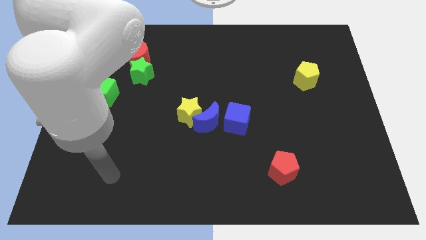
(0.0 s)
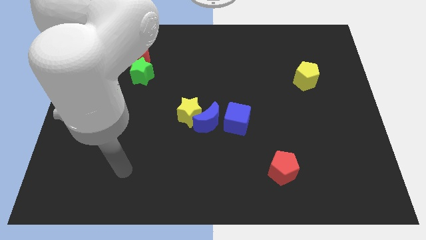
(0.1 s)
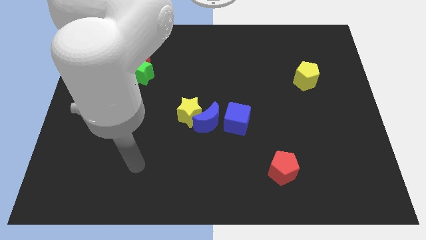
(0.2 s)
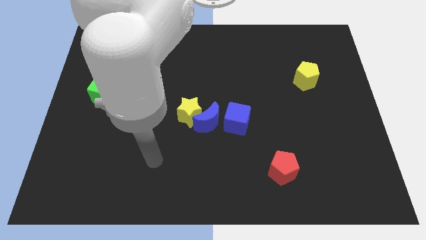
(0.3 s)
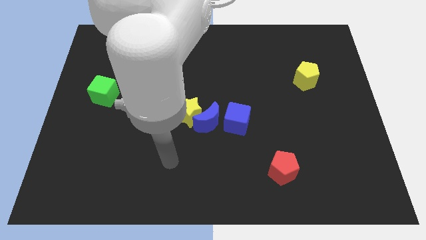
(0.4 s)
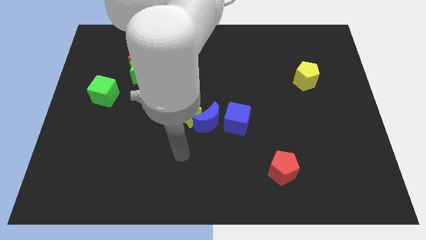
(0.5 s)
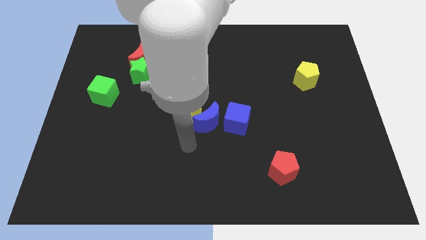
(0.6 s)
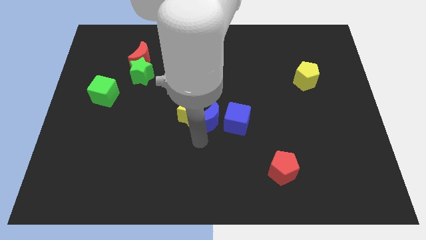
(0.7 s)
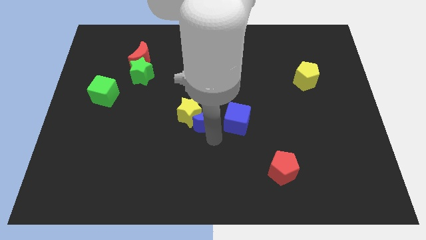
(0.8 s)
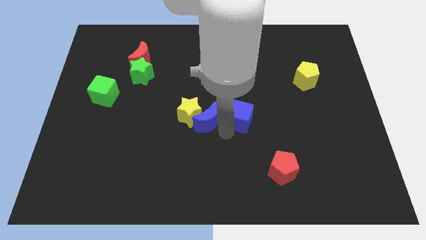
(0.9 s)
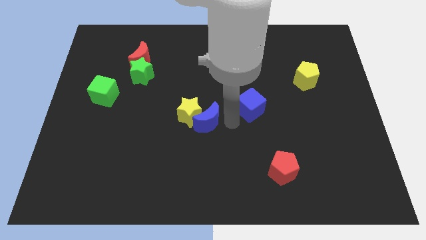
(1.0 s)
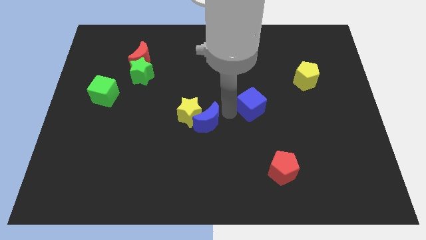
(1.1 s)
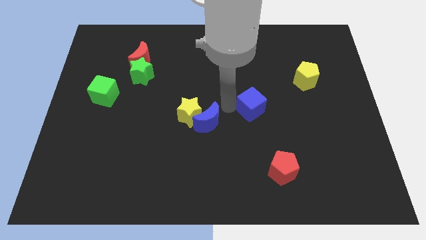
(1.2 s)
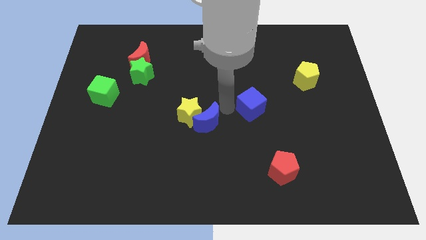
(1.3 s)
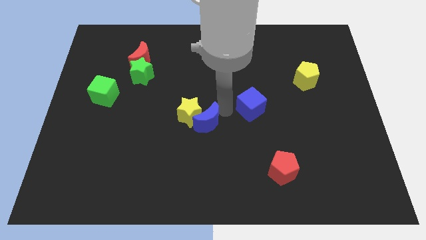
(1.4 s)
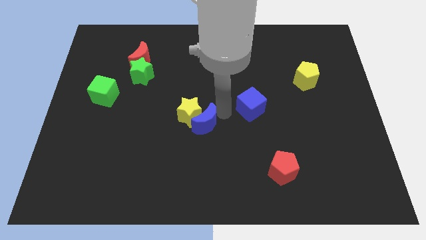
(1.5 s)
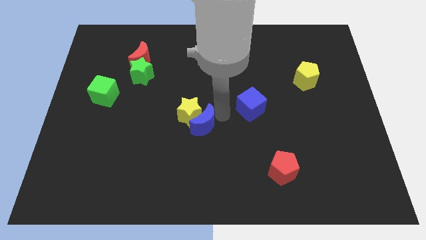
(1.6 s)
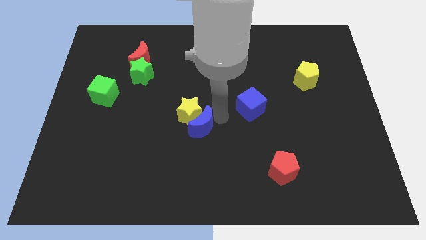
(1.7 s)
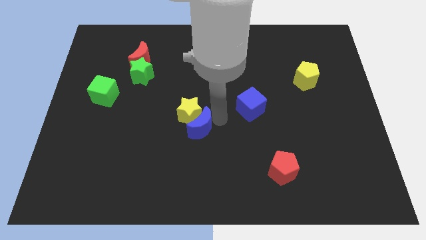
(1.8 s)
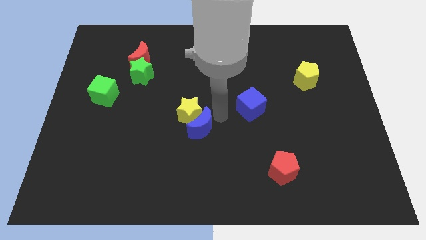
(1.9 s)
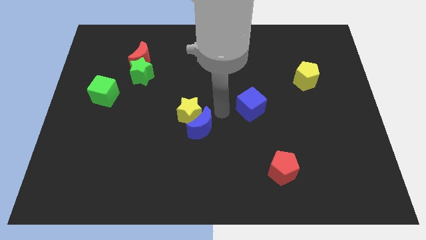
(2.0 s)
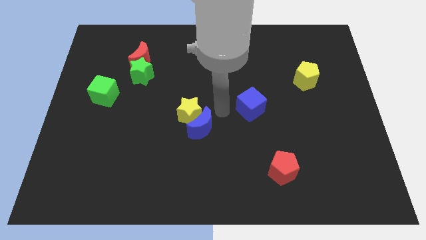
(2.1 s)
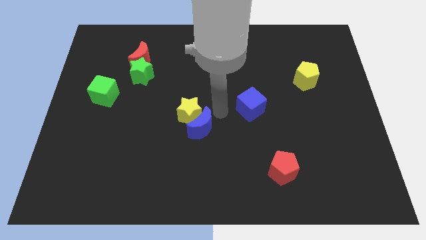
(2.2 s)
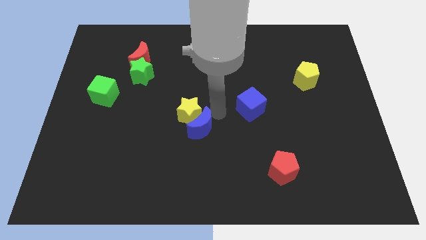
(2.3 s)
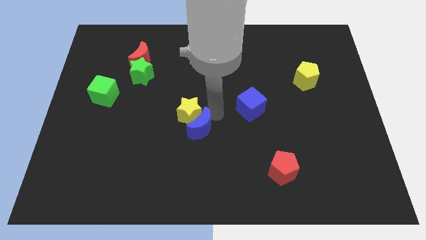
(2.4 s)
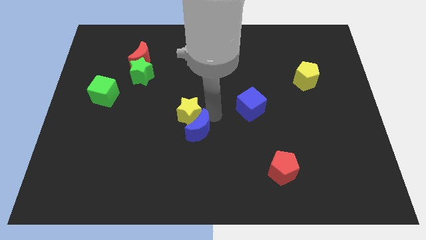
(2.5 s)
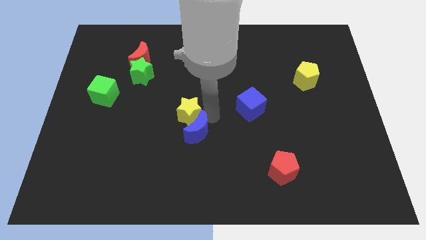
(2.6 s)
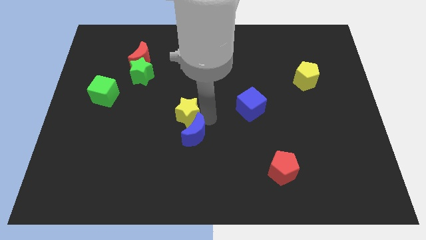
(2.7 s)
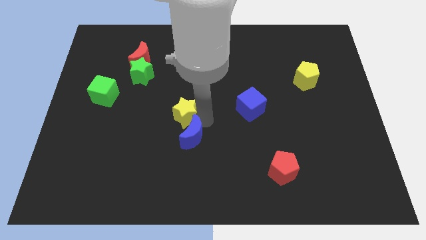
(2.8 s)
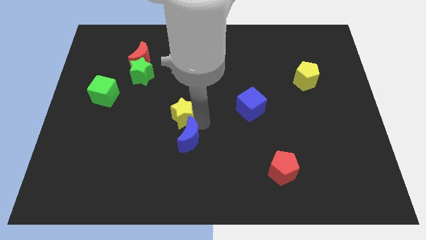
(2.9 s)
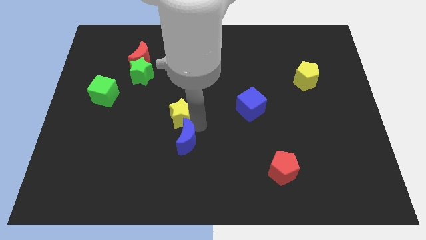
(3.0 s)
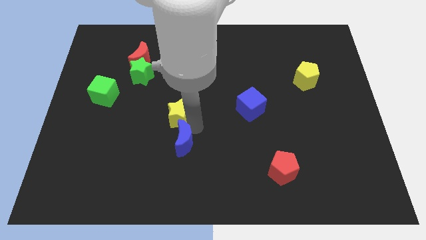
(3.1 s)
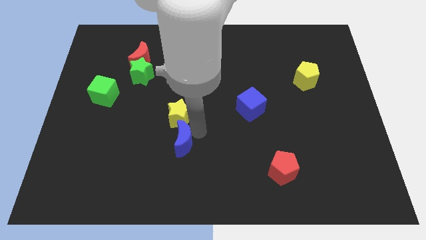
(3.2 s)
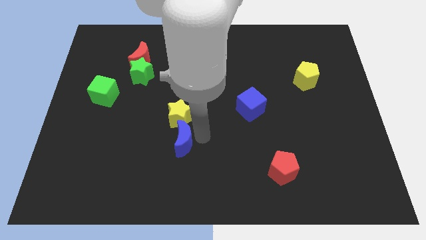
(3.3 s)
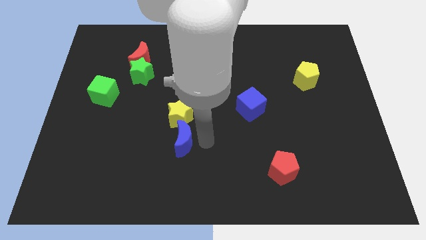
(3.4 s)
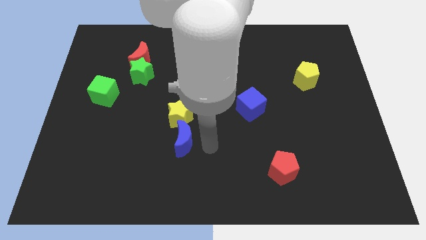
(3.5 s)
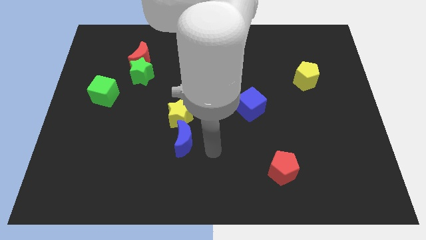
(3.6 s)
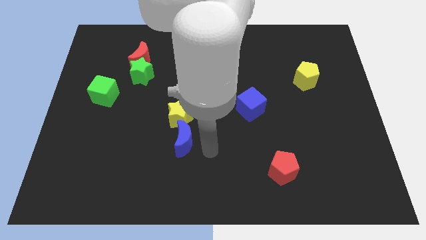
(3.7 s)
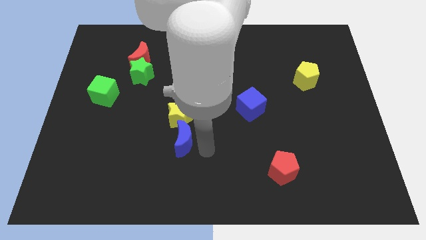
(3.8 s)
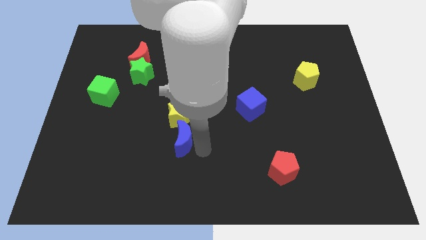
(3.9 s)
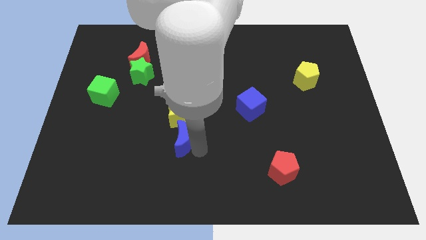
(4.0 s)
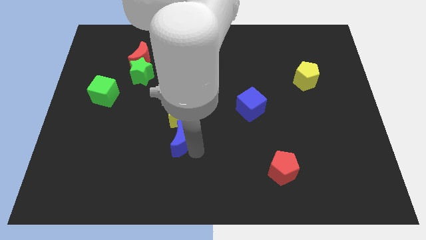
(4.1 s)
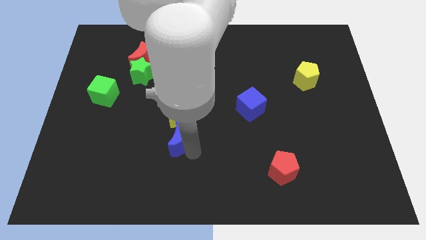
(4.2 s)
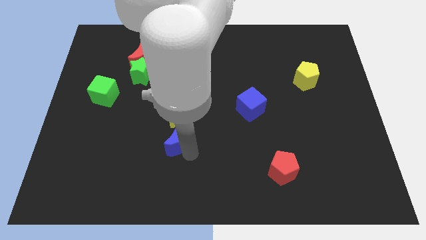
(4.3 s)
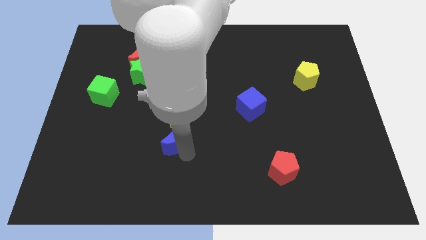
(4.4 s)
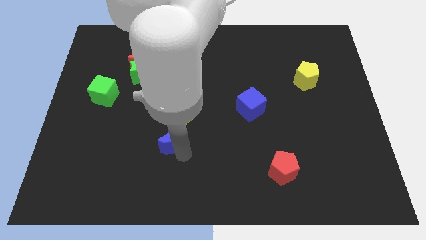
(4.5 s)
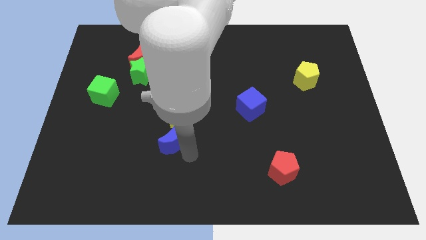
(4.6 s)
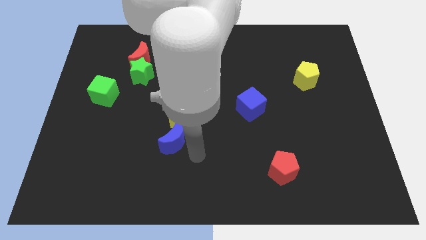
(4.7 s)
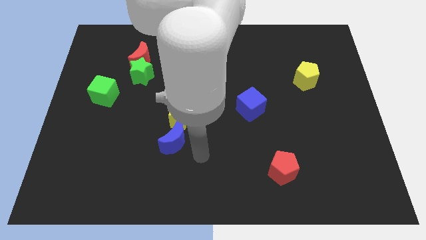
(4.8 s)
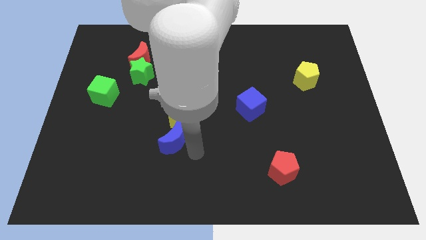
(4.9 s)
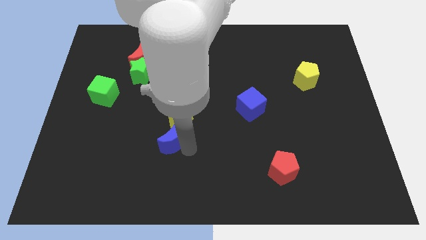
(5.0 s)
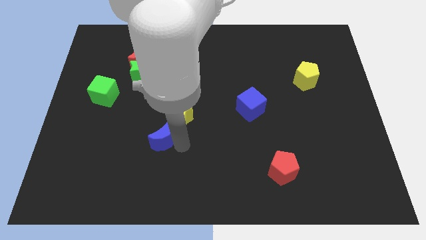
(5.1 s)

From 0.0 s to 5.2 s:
slide the blue moon to the left a little

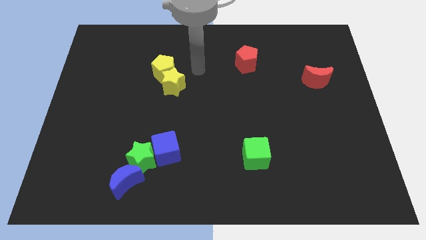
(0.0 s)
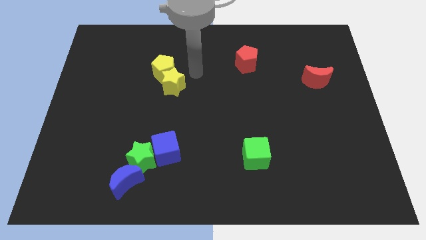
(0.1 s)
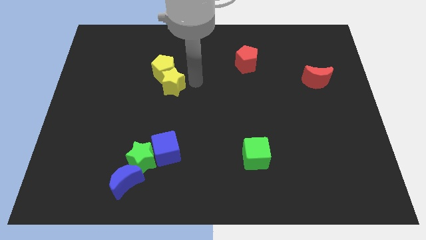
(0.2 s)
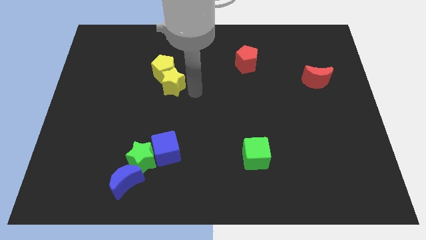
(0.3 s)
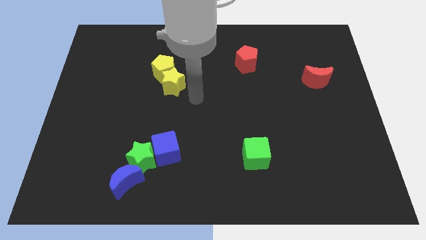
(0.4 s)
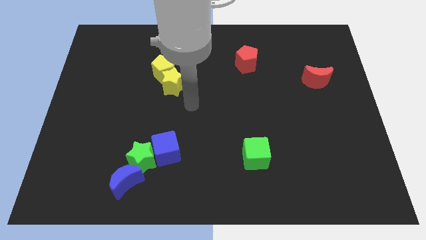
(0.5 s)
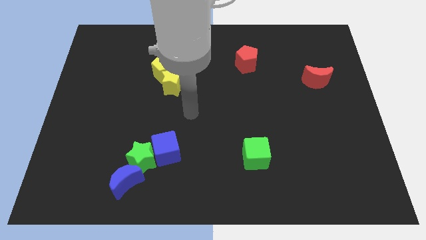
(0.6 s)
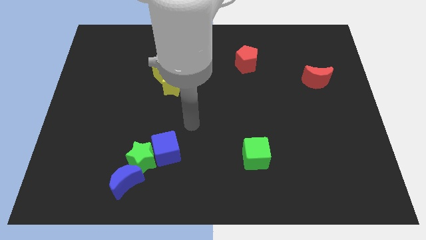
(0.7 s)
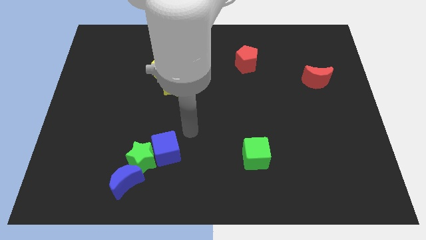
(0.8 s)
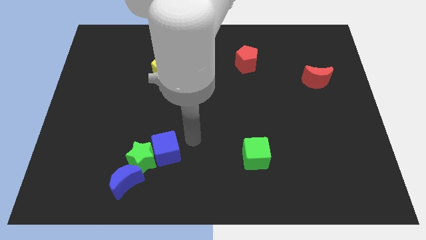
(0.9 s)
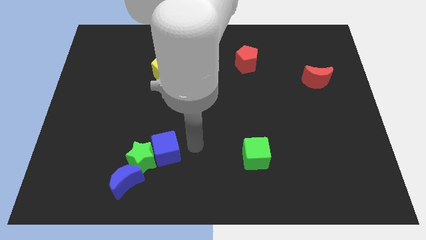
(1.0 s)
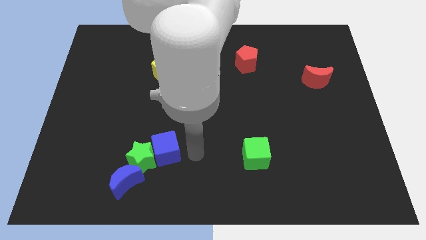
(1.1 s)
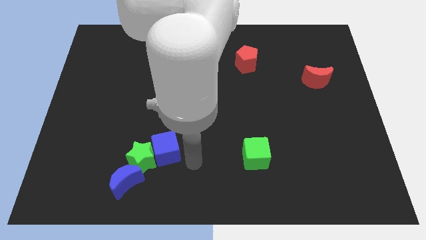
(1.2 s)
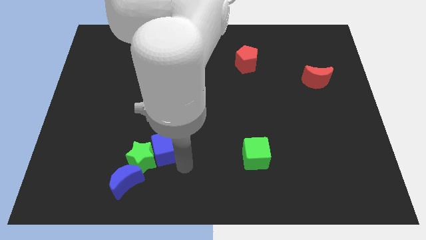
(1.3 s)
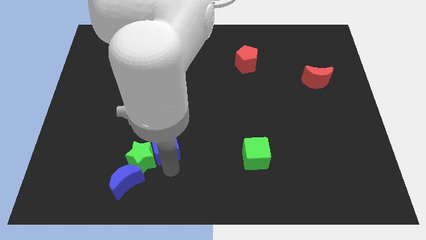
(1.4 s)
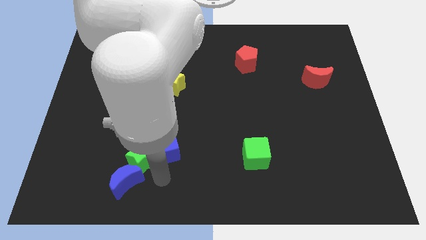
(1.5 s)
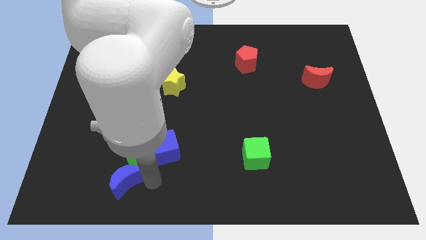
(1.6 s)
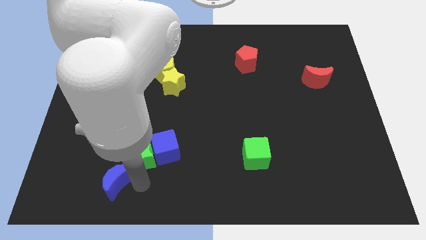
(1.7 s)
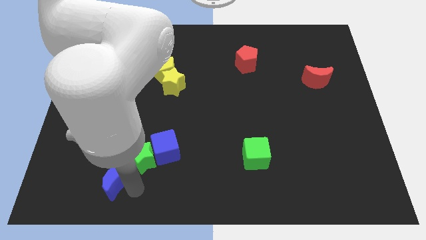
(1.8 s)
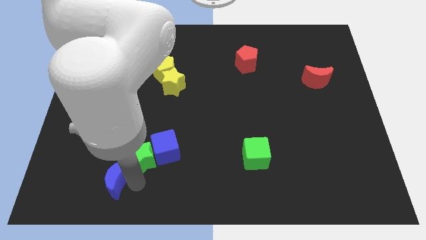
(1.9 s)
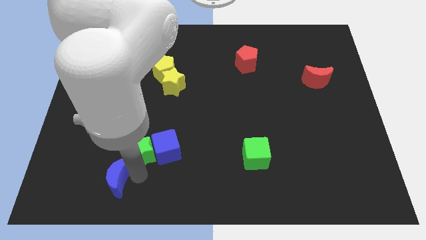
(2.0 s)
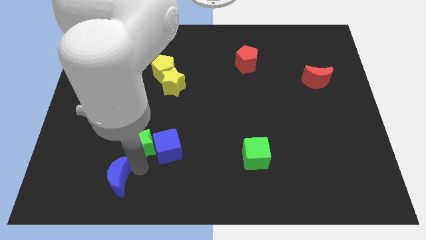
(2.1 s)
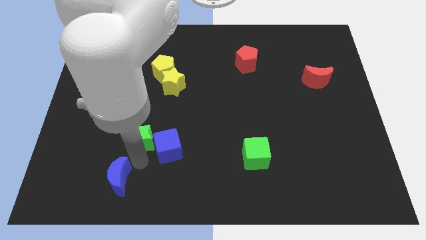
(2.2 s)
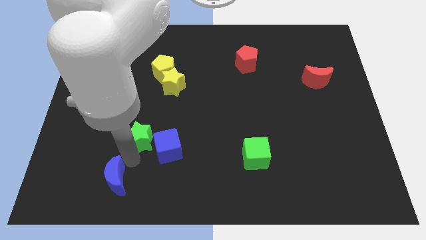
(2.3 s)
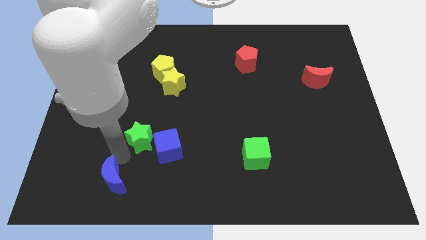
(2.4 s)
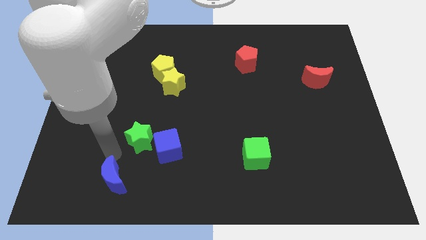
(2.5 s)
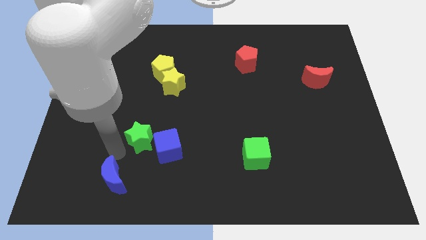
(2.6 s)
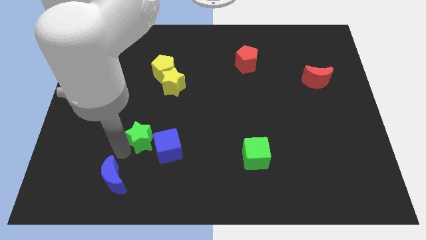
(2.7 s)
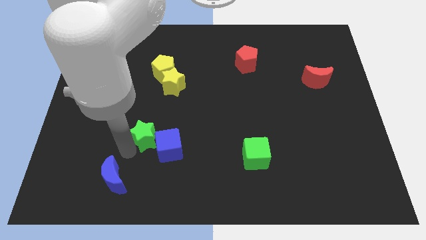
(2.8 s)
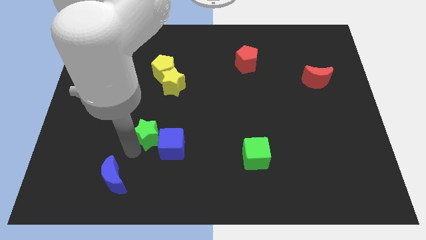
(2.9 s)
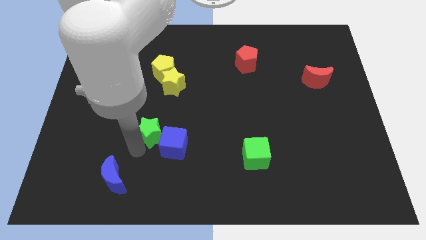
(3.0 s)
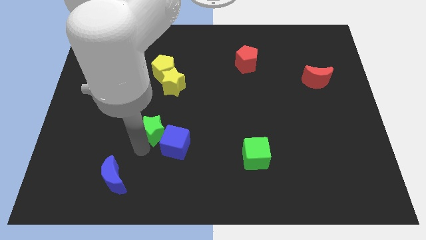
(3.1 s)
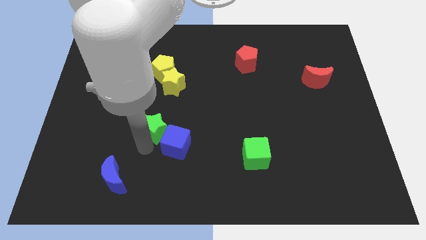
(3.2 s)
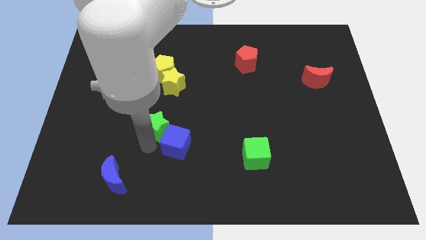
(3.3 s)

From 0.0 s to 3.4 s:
slightly push the green star upwards and right diagonally
